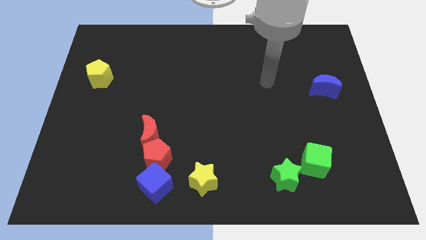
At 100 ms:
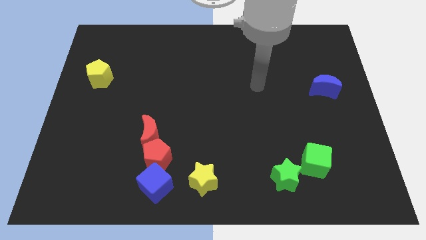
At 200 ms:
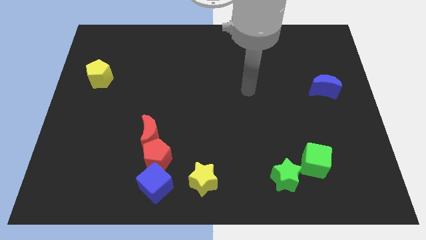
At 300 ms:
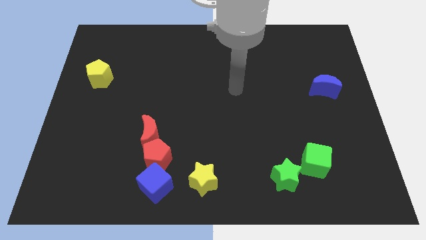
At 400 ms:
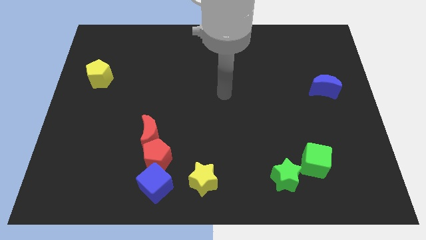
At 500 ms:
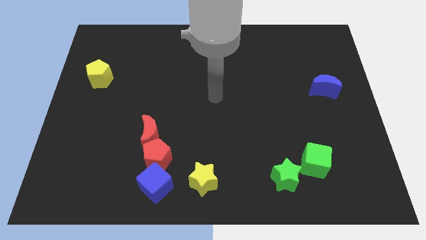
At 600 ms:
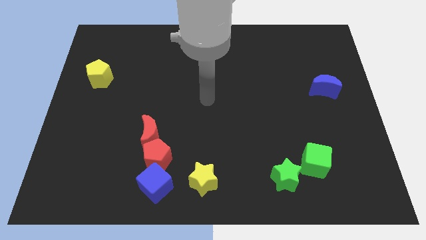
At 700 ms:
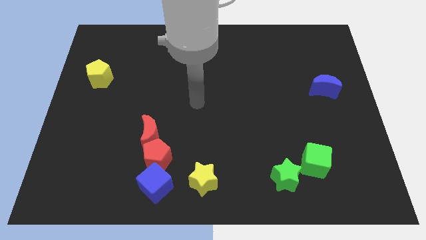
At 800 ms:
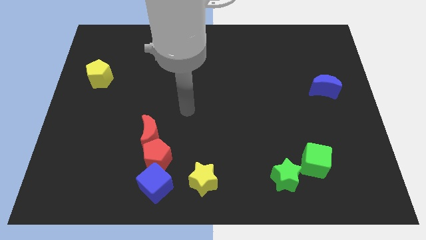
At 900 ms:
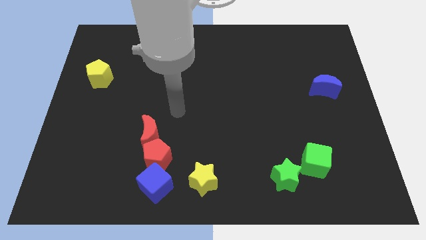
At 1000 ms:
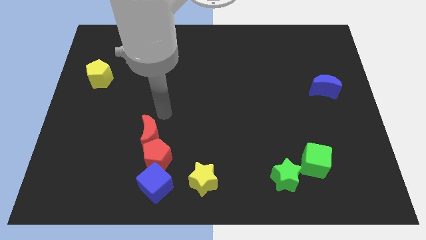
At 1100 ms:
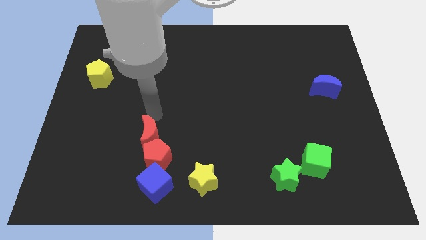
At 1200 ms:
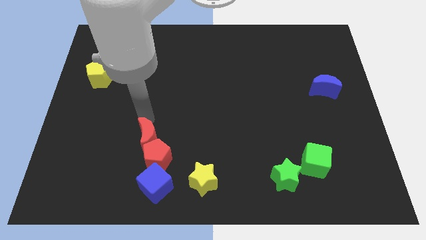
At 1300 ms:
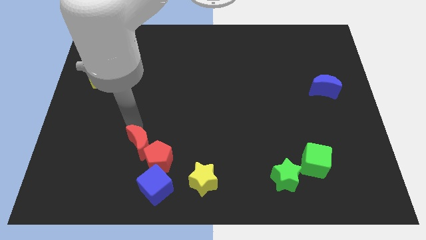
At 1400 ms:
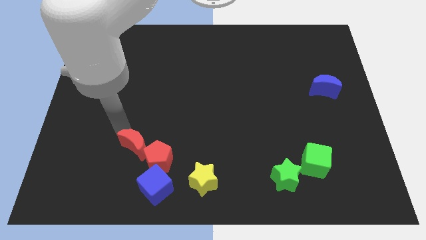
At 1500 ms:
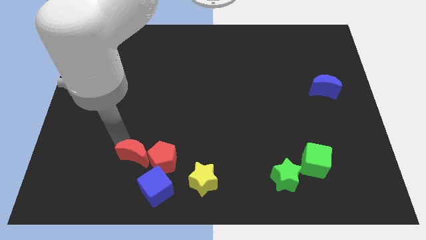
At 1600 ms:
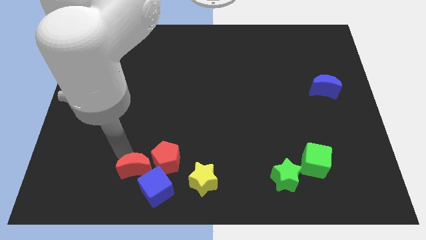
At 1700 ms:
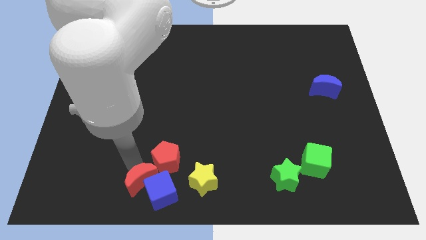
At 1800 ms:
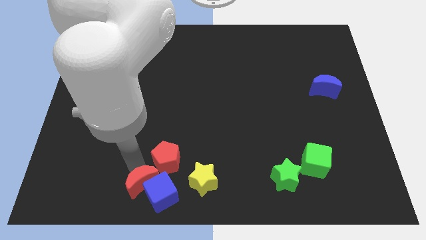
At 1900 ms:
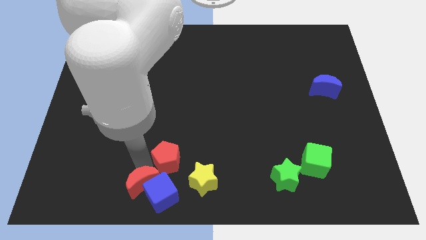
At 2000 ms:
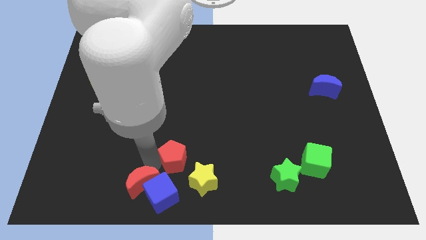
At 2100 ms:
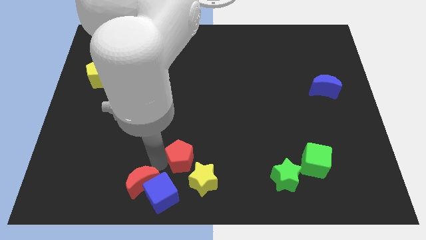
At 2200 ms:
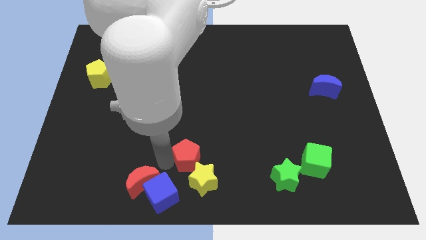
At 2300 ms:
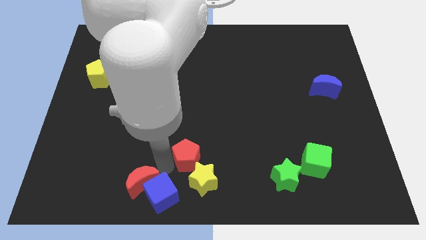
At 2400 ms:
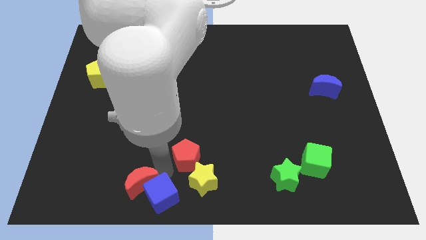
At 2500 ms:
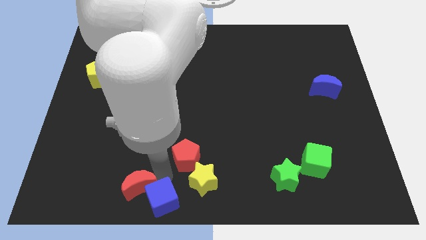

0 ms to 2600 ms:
pull the red pentagon apart from the blue cube and red moon

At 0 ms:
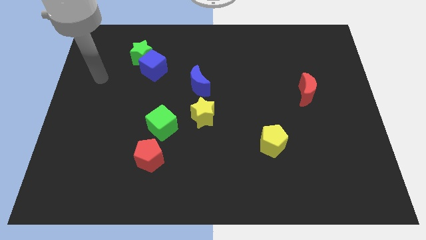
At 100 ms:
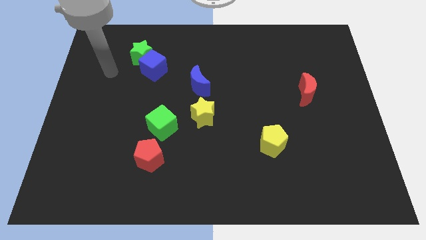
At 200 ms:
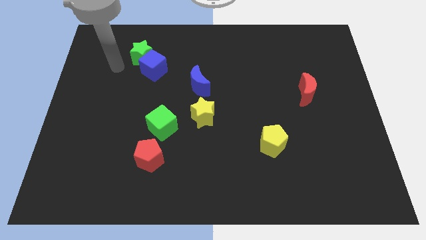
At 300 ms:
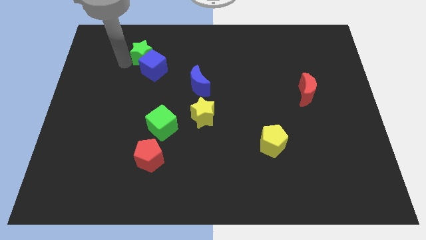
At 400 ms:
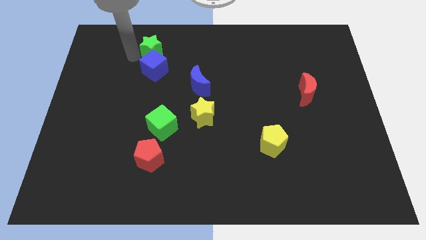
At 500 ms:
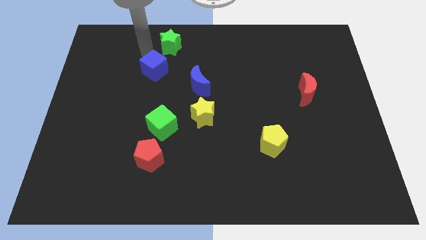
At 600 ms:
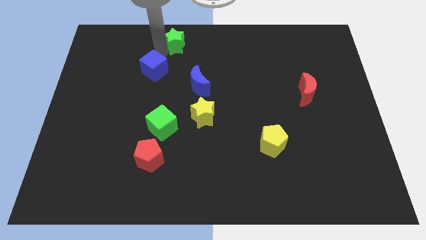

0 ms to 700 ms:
separate the blue cube from the green star

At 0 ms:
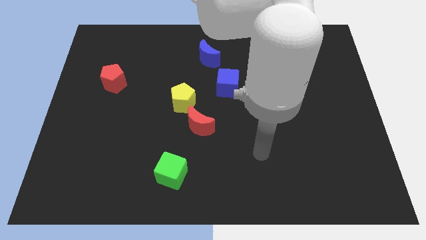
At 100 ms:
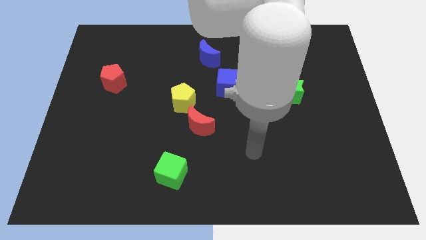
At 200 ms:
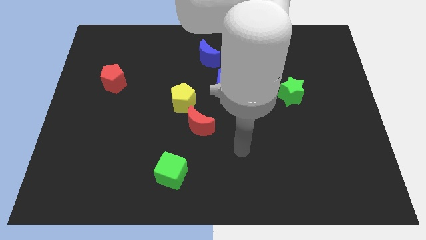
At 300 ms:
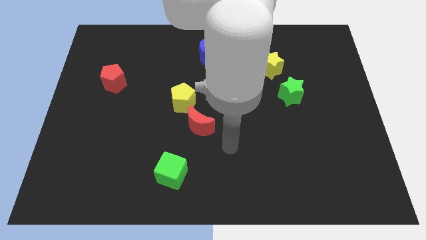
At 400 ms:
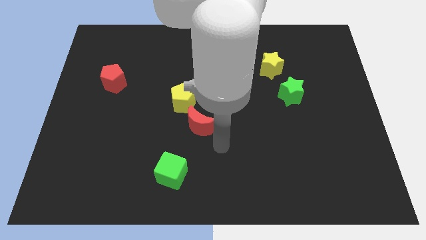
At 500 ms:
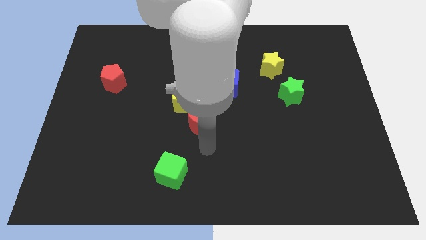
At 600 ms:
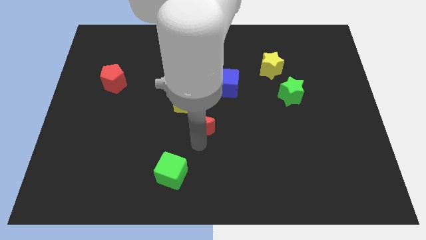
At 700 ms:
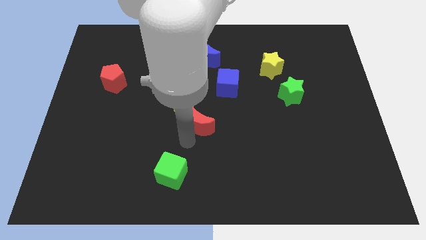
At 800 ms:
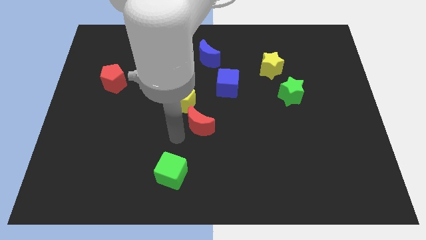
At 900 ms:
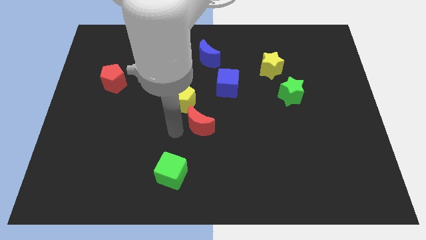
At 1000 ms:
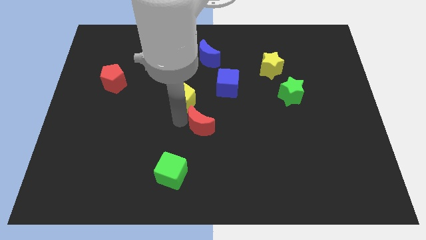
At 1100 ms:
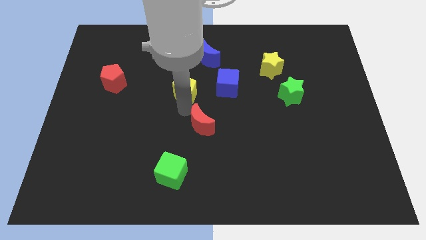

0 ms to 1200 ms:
move the red moon away from the yellow pentagon

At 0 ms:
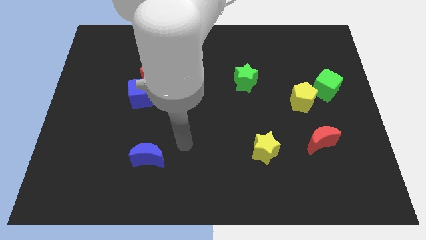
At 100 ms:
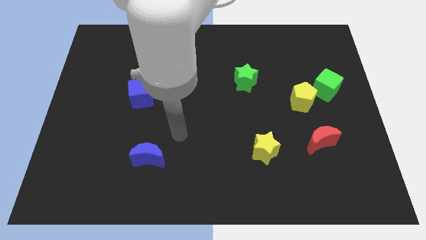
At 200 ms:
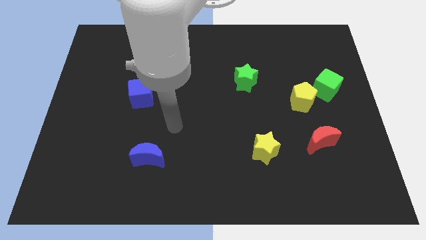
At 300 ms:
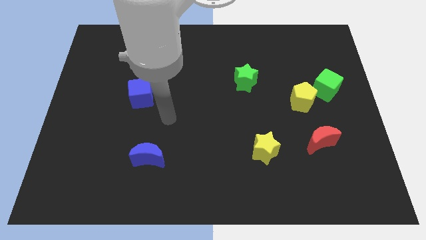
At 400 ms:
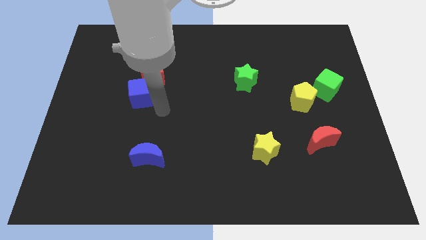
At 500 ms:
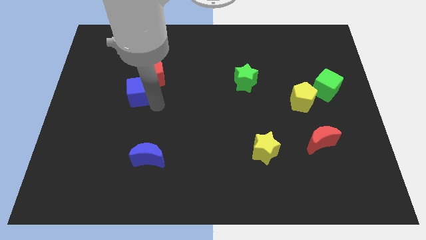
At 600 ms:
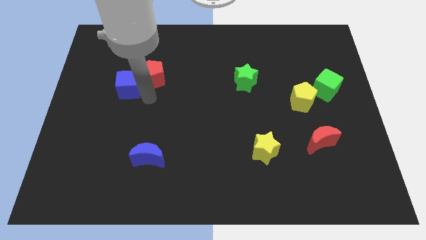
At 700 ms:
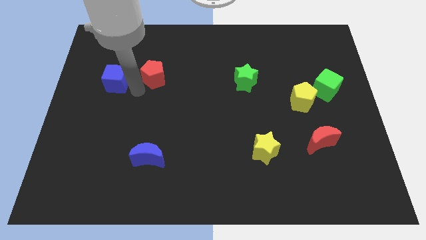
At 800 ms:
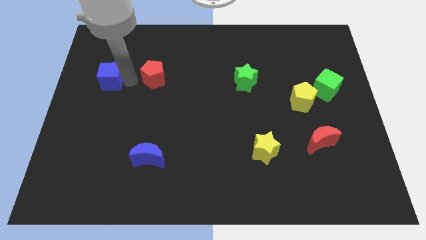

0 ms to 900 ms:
pull the red pentagon apart from the blue cube

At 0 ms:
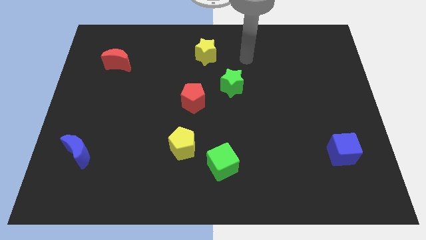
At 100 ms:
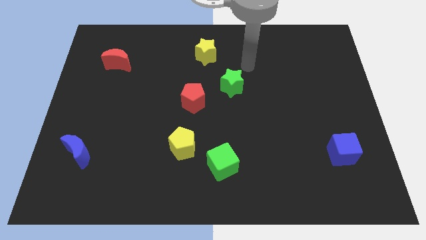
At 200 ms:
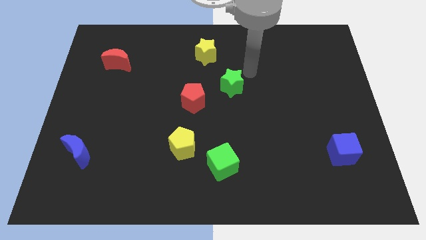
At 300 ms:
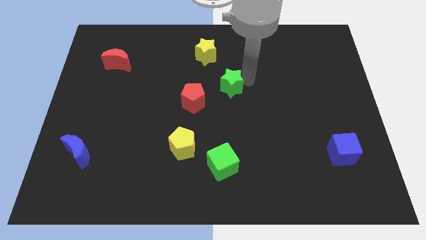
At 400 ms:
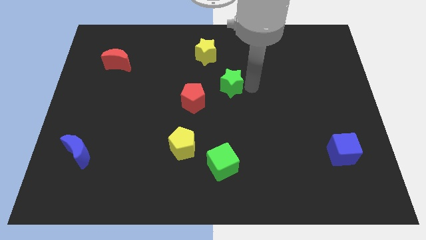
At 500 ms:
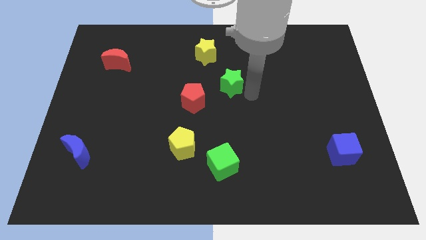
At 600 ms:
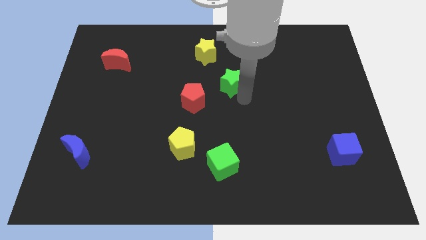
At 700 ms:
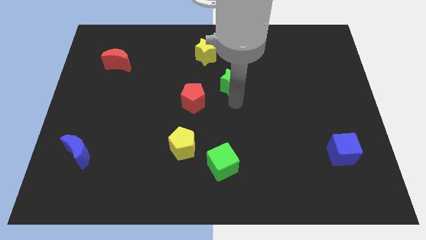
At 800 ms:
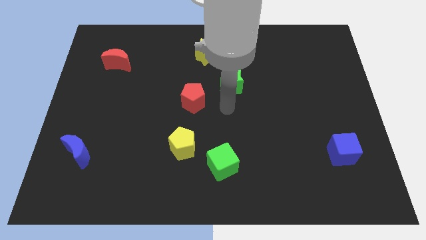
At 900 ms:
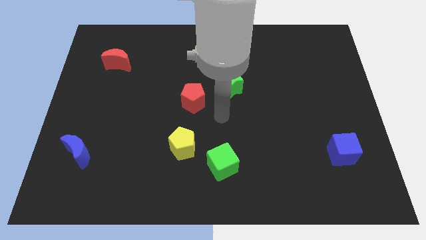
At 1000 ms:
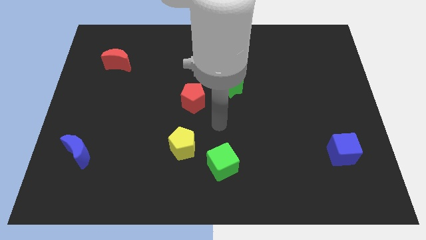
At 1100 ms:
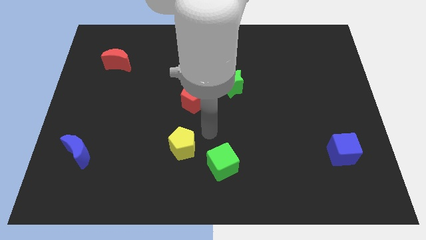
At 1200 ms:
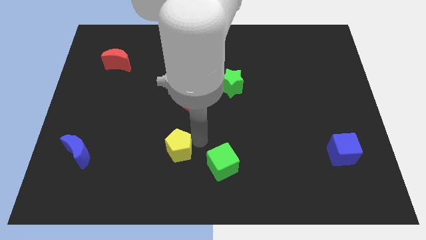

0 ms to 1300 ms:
separate the green cube from the yellow pentagon

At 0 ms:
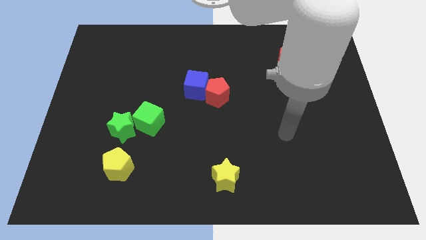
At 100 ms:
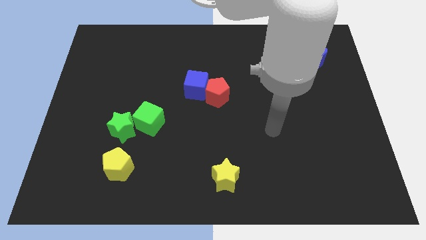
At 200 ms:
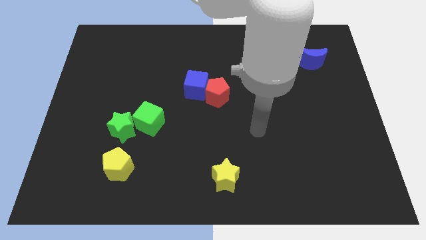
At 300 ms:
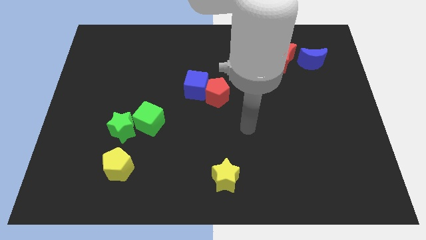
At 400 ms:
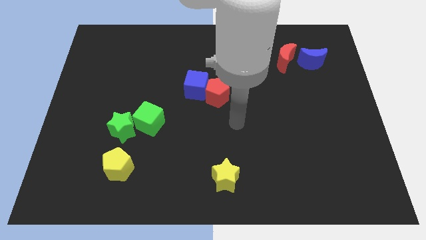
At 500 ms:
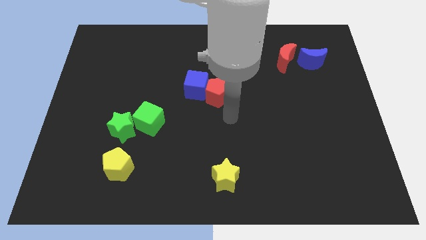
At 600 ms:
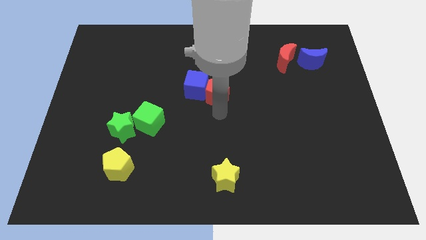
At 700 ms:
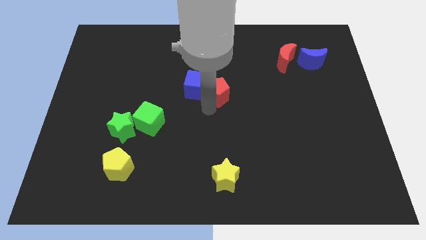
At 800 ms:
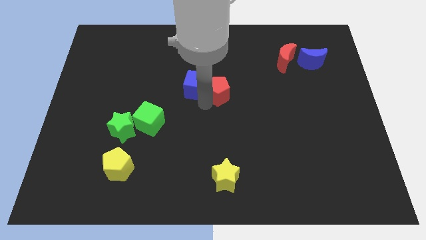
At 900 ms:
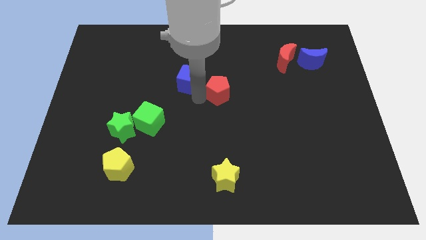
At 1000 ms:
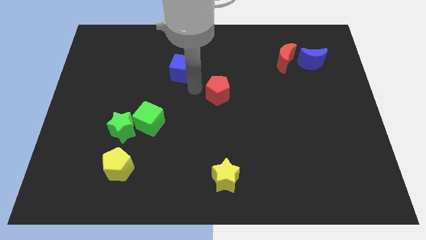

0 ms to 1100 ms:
move the red pentagon away from the blue cube

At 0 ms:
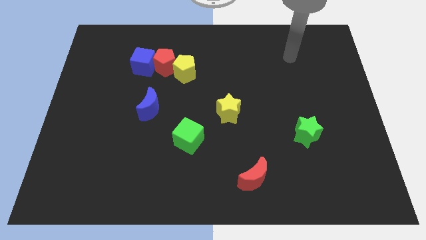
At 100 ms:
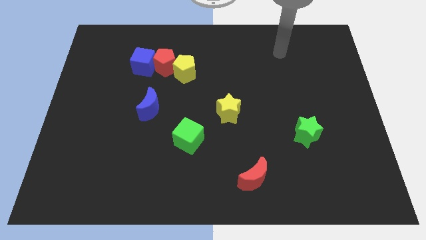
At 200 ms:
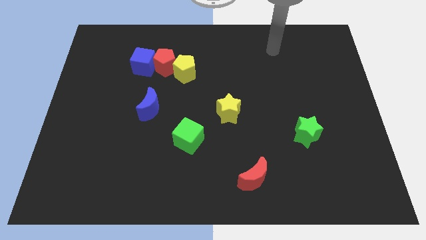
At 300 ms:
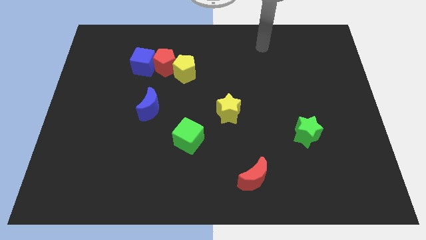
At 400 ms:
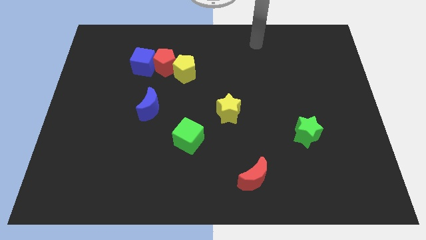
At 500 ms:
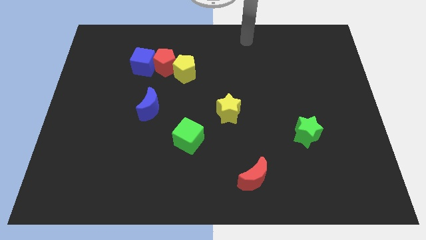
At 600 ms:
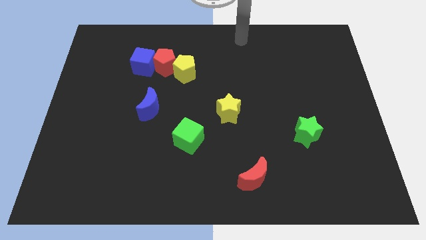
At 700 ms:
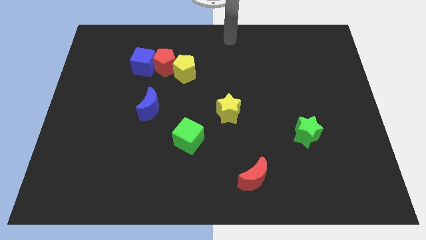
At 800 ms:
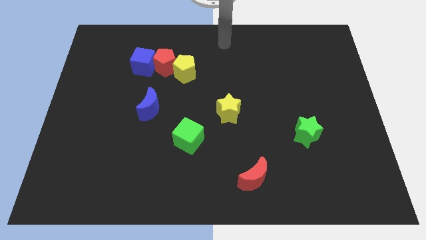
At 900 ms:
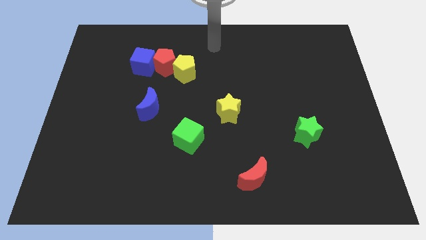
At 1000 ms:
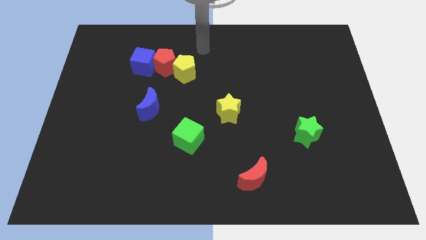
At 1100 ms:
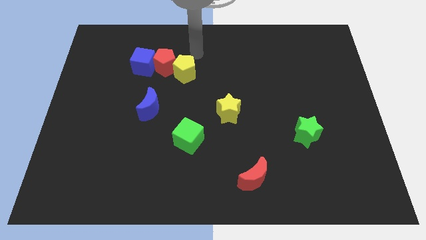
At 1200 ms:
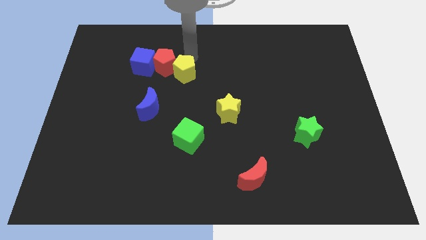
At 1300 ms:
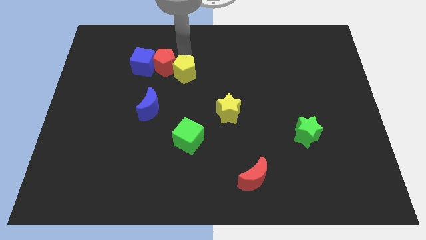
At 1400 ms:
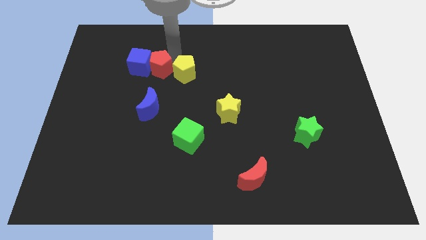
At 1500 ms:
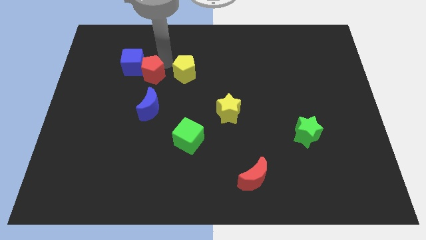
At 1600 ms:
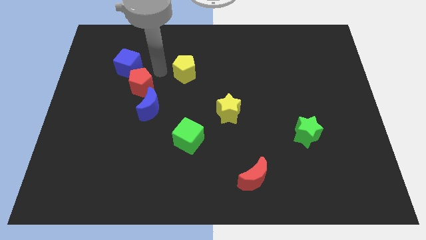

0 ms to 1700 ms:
pull the yellow pentagon apart from the red pentagon
